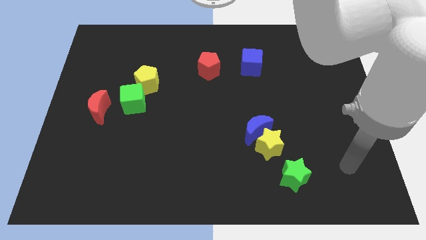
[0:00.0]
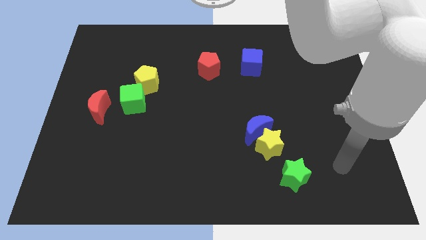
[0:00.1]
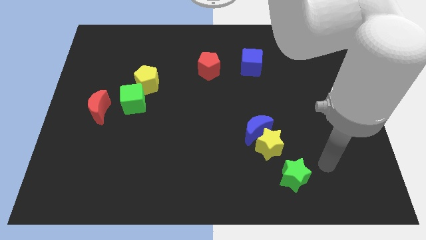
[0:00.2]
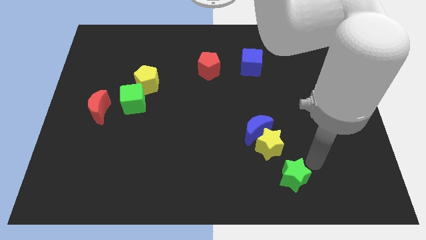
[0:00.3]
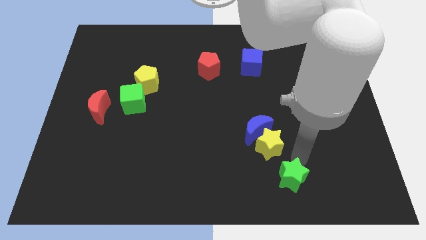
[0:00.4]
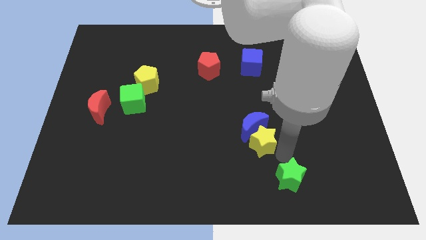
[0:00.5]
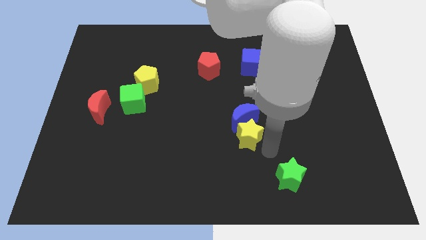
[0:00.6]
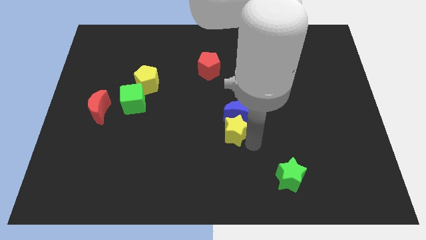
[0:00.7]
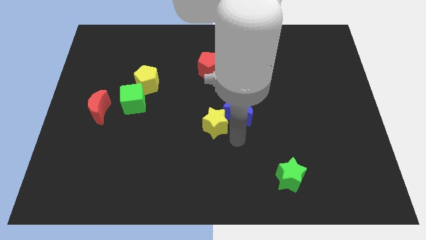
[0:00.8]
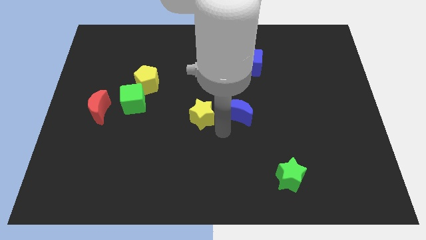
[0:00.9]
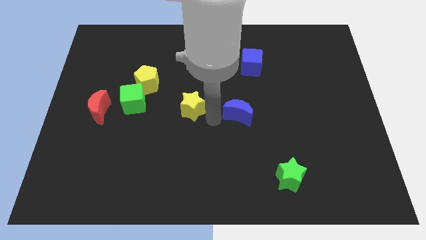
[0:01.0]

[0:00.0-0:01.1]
pull the blue moon apart from the yellow star

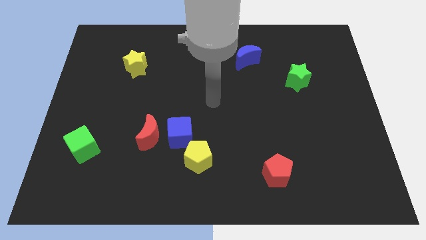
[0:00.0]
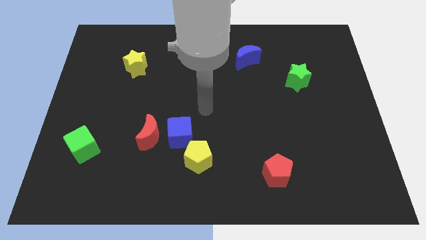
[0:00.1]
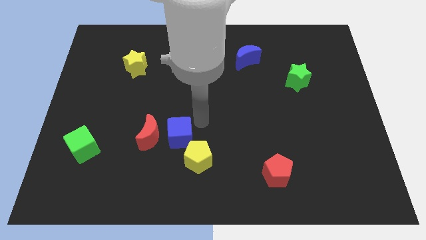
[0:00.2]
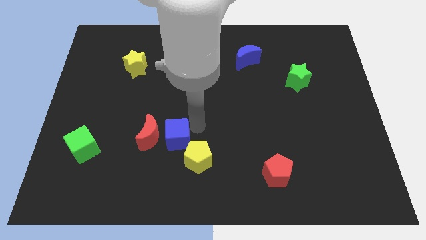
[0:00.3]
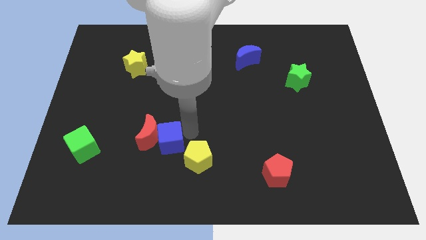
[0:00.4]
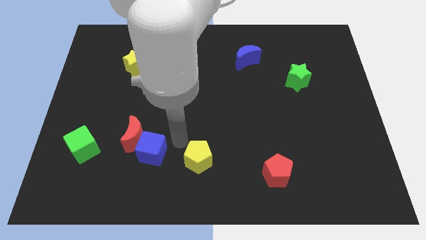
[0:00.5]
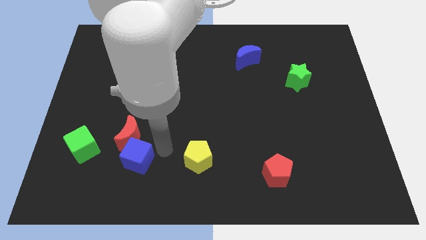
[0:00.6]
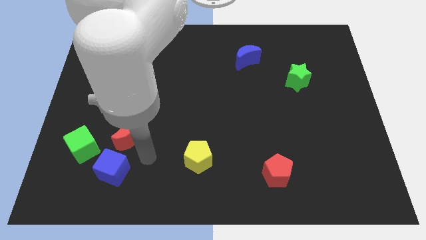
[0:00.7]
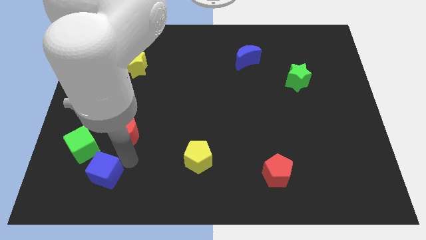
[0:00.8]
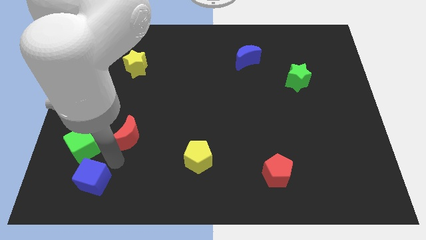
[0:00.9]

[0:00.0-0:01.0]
pull the red moon apart from the blue cube

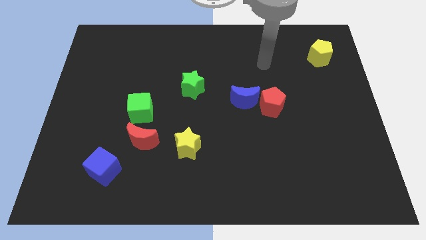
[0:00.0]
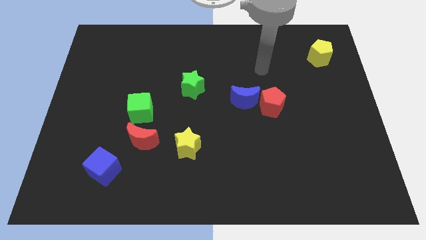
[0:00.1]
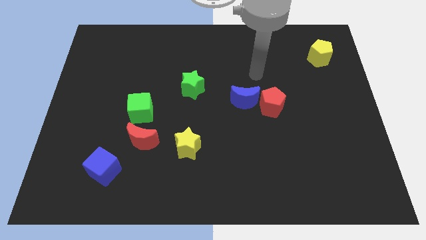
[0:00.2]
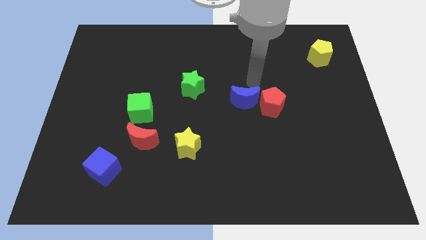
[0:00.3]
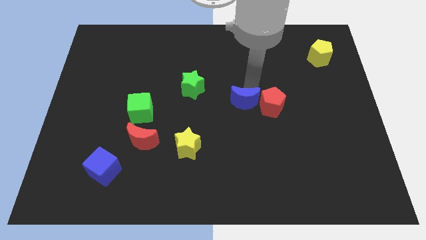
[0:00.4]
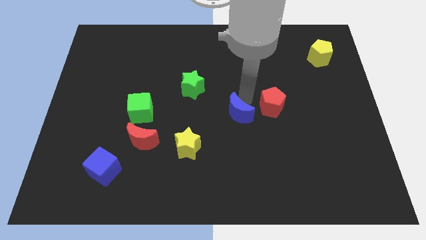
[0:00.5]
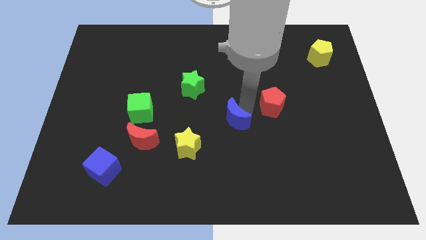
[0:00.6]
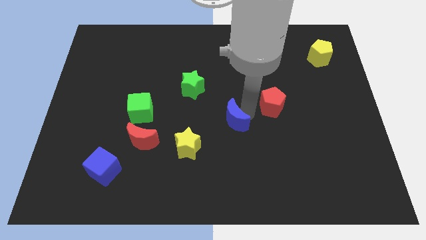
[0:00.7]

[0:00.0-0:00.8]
separate the red pentagon from the blue moon

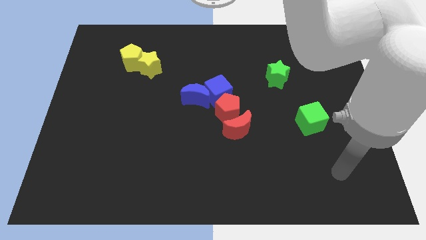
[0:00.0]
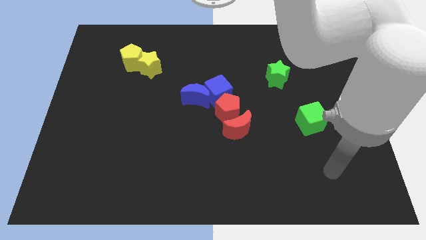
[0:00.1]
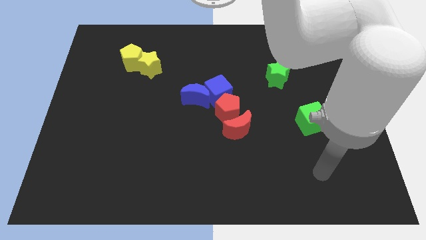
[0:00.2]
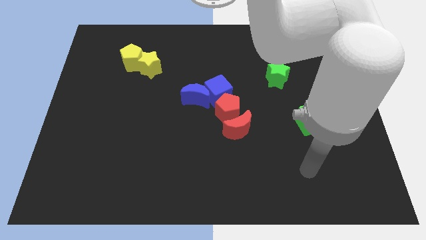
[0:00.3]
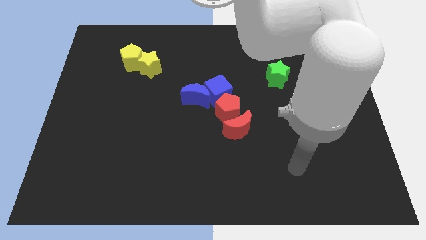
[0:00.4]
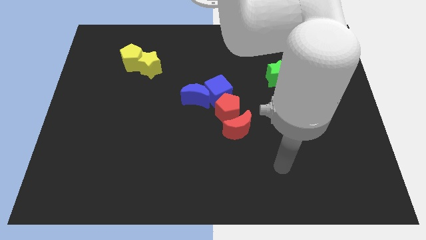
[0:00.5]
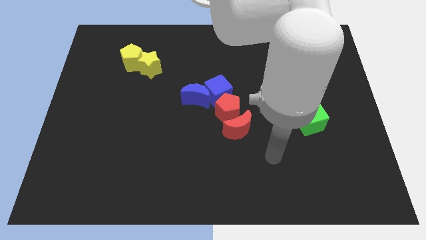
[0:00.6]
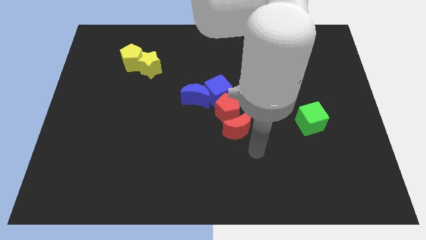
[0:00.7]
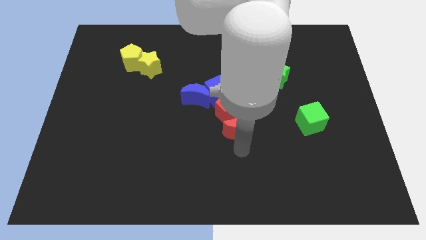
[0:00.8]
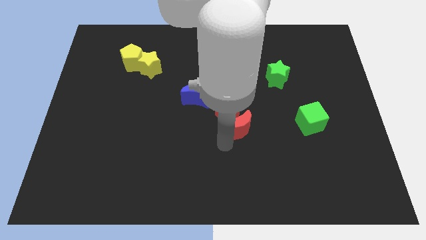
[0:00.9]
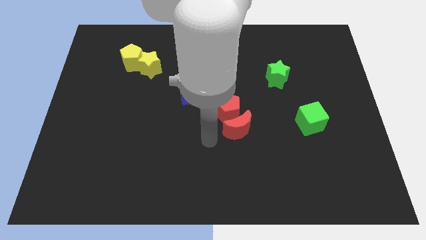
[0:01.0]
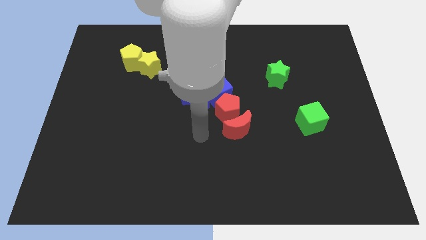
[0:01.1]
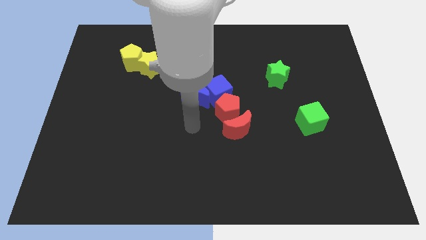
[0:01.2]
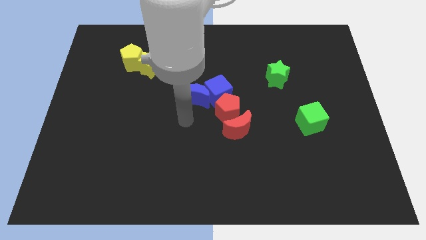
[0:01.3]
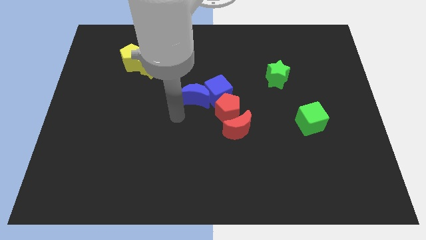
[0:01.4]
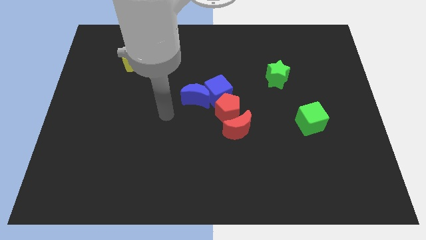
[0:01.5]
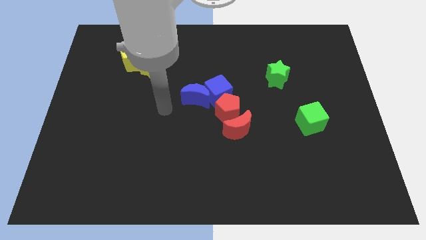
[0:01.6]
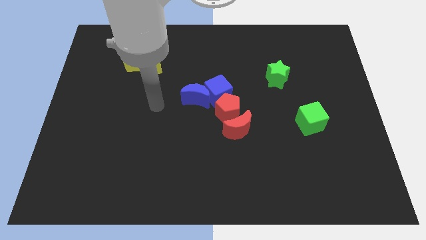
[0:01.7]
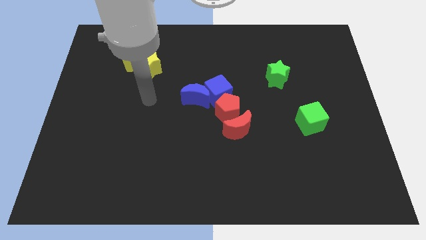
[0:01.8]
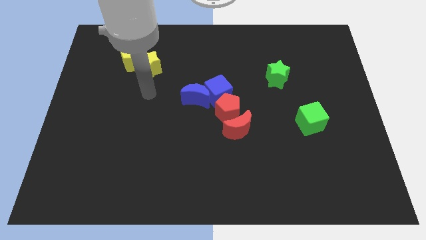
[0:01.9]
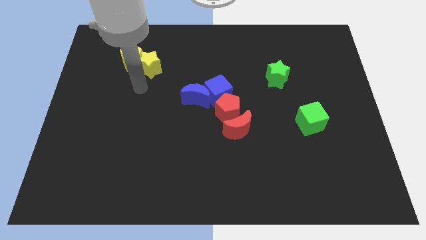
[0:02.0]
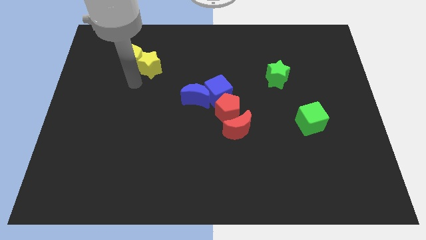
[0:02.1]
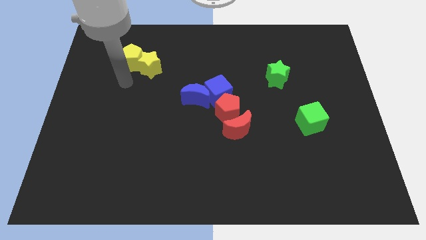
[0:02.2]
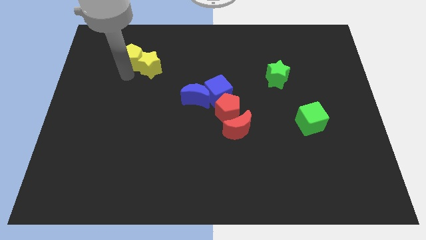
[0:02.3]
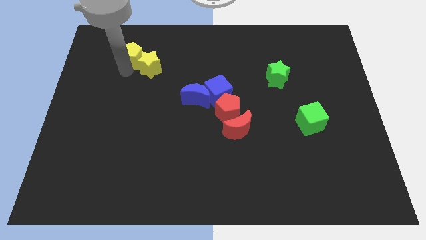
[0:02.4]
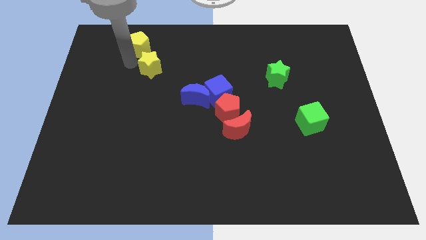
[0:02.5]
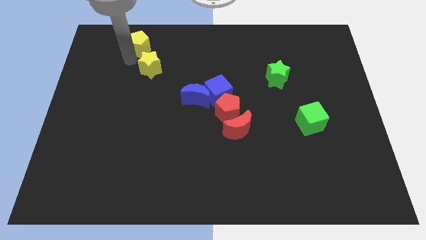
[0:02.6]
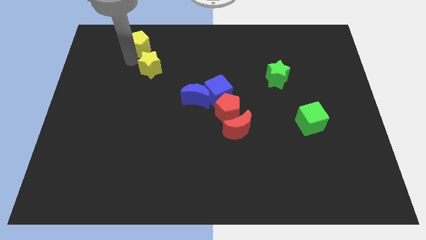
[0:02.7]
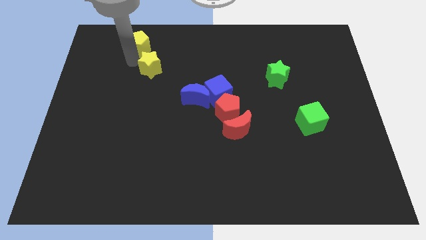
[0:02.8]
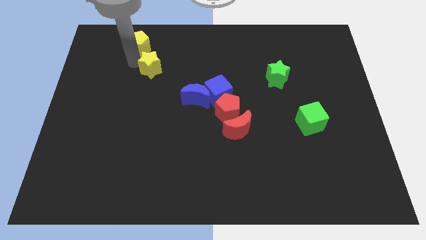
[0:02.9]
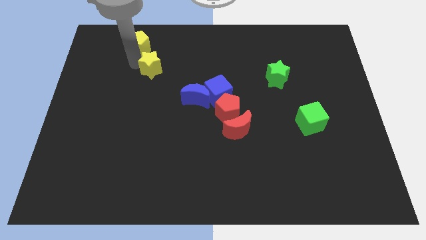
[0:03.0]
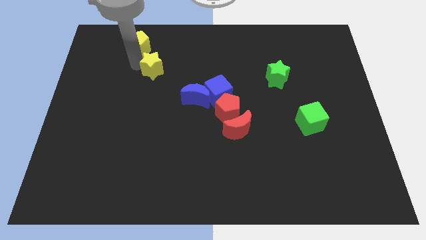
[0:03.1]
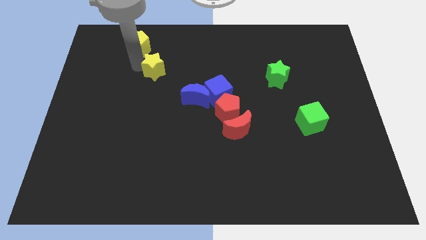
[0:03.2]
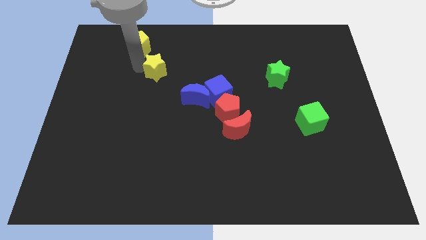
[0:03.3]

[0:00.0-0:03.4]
pull the yellow star apart from the yellow pentagon

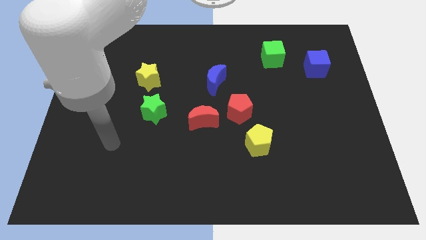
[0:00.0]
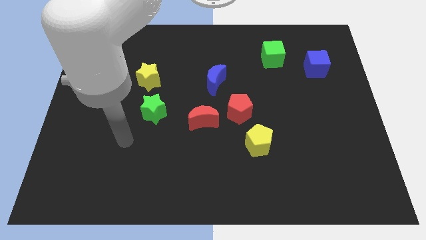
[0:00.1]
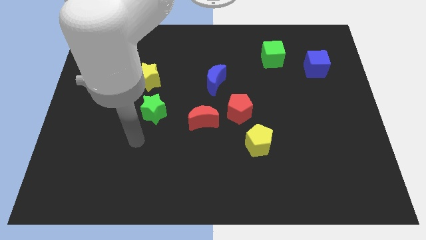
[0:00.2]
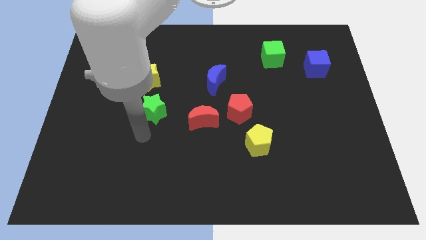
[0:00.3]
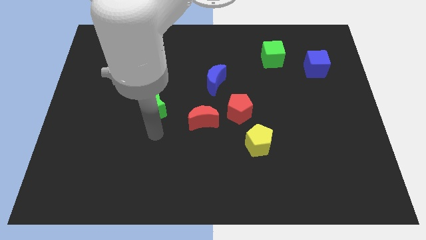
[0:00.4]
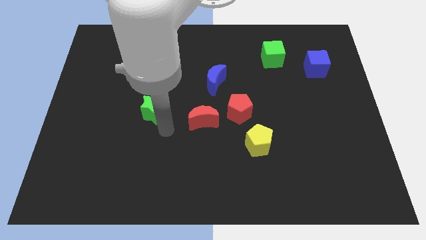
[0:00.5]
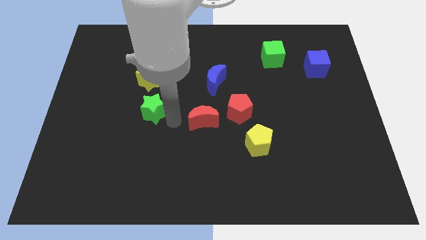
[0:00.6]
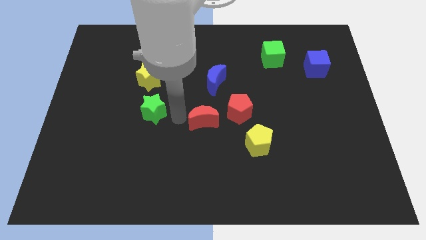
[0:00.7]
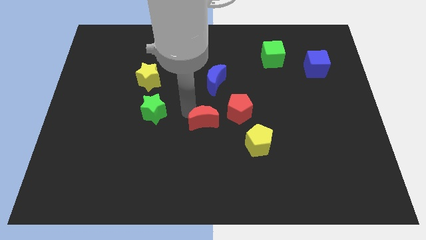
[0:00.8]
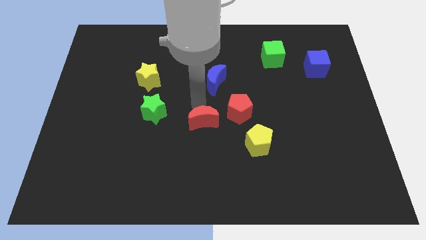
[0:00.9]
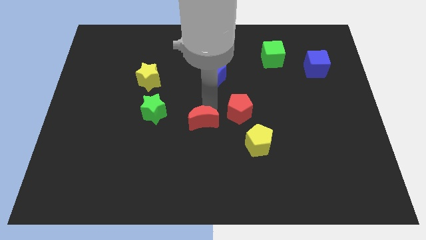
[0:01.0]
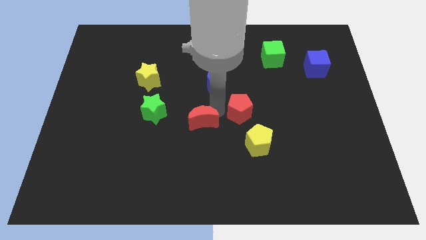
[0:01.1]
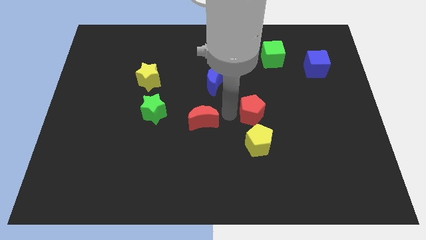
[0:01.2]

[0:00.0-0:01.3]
move the red moon away from the red pentagon

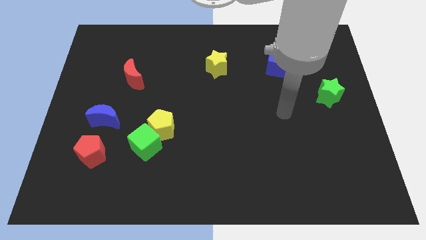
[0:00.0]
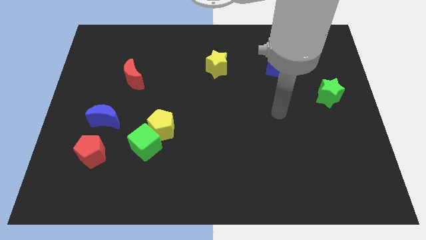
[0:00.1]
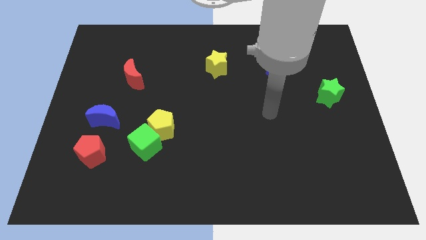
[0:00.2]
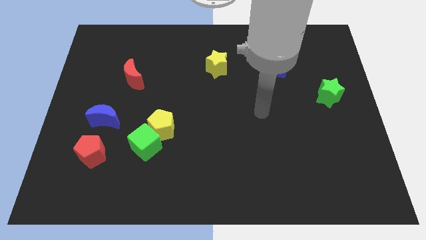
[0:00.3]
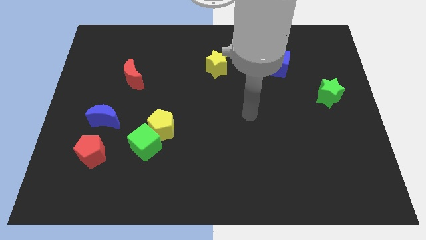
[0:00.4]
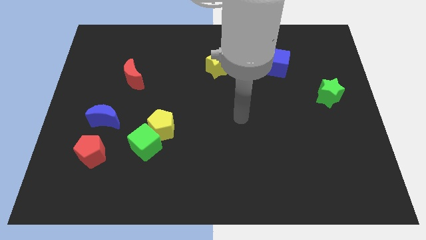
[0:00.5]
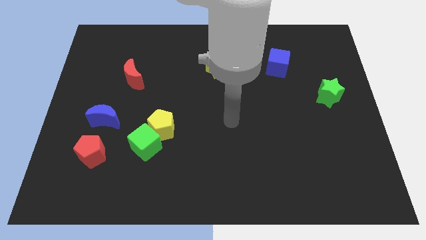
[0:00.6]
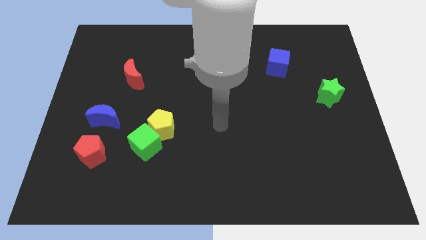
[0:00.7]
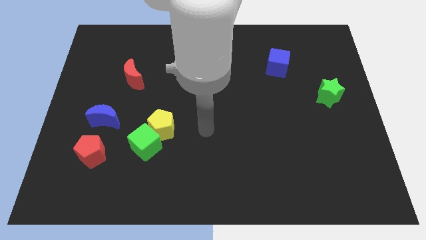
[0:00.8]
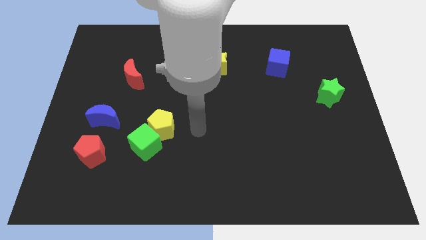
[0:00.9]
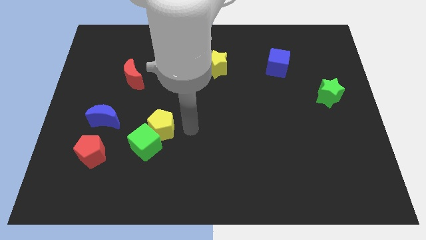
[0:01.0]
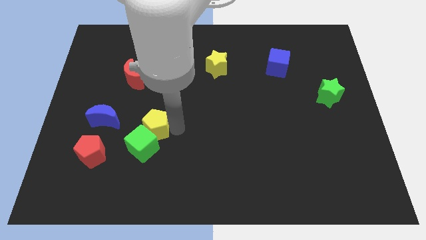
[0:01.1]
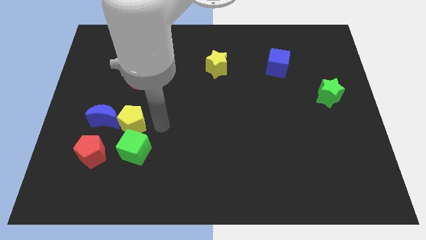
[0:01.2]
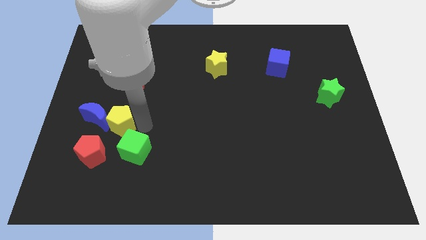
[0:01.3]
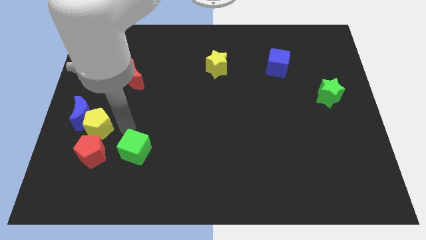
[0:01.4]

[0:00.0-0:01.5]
separate the green cube from the yellow pentagon

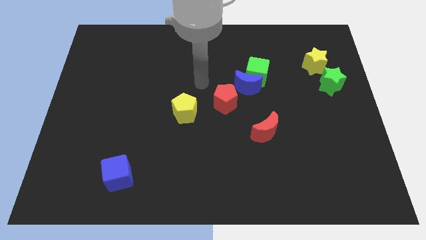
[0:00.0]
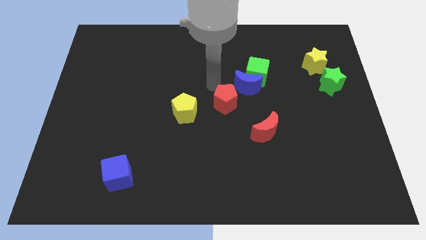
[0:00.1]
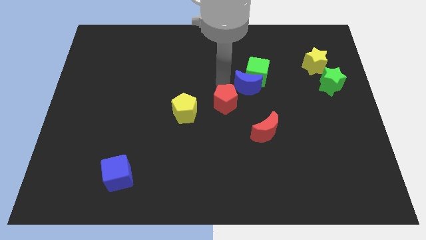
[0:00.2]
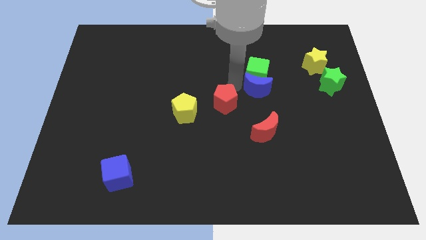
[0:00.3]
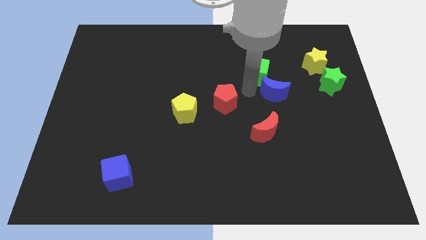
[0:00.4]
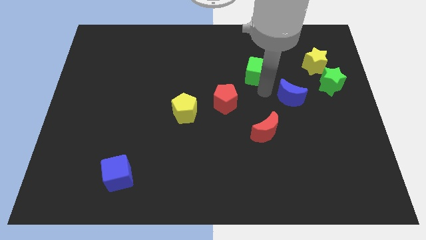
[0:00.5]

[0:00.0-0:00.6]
pull the green cube apart from the blue moon
